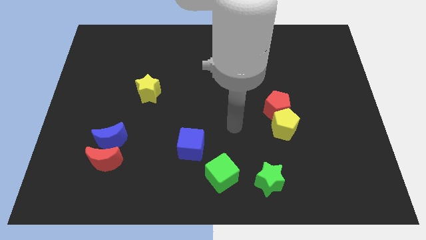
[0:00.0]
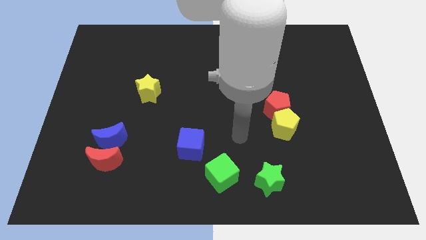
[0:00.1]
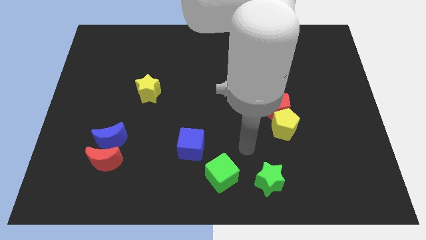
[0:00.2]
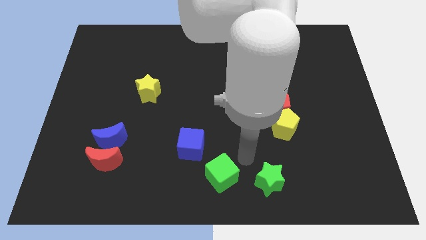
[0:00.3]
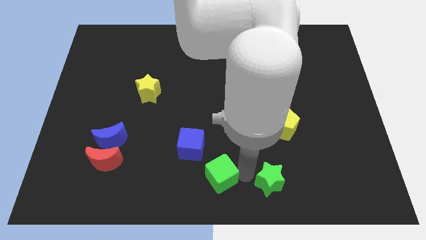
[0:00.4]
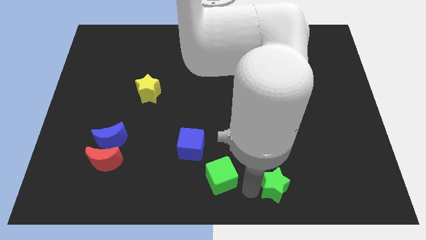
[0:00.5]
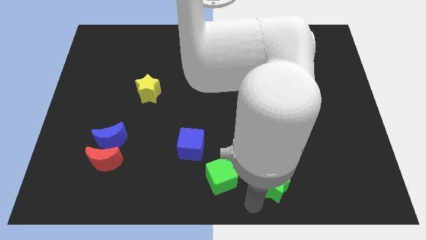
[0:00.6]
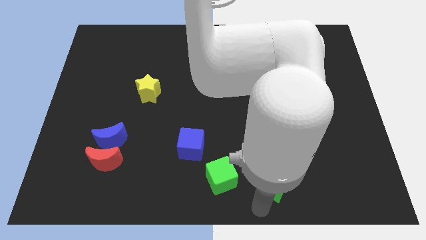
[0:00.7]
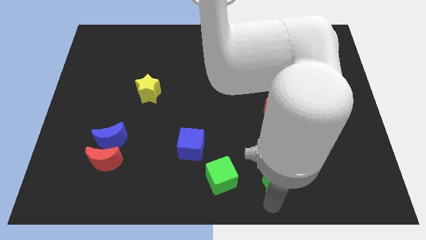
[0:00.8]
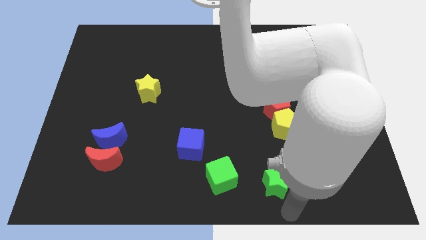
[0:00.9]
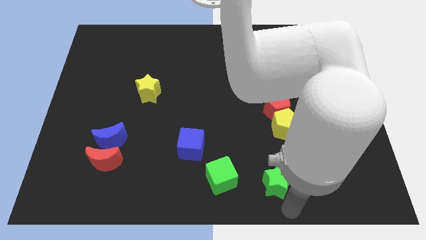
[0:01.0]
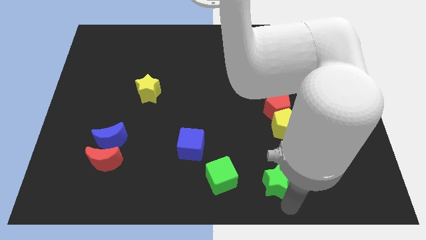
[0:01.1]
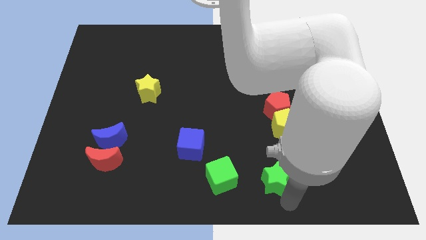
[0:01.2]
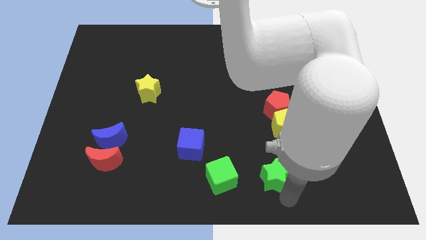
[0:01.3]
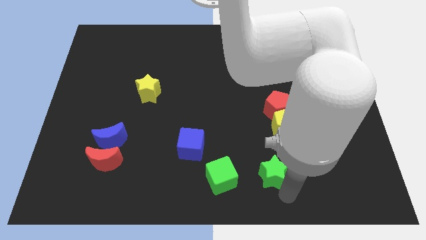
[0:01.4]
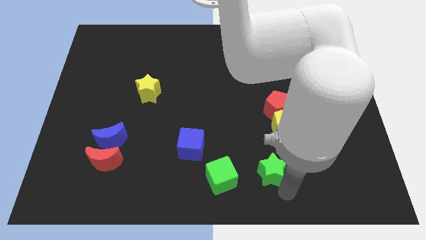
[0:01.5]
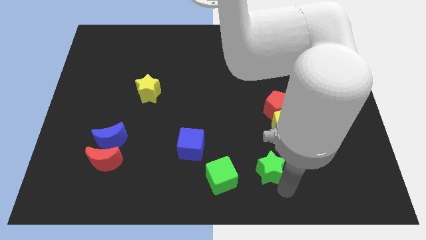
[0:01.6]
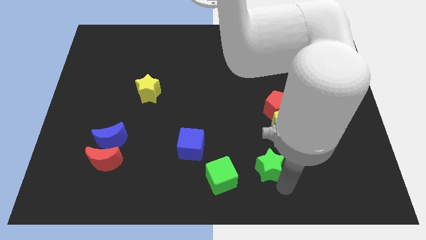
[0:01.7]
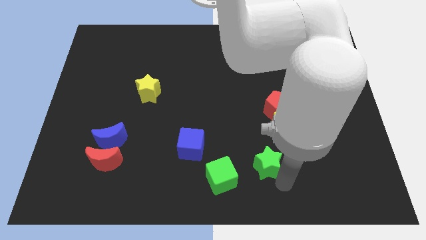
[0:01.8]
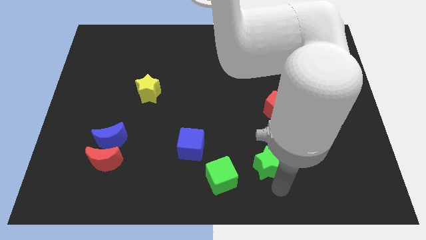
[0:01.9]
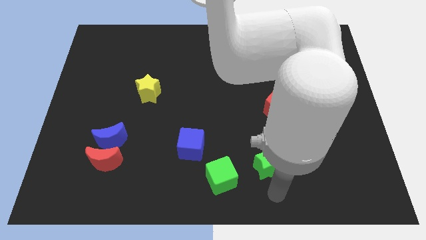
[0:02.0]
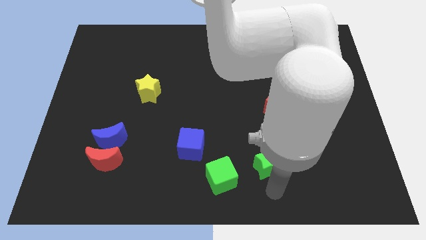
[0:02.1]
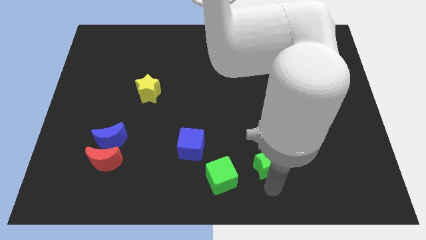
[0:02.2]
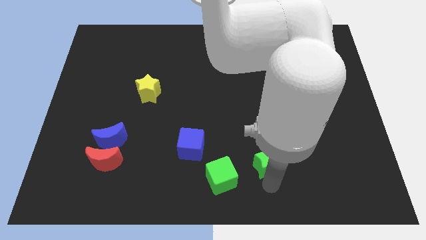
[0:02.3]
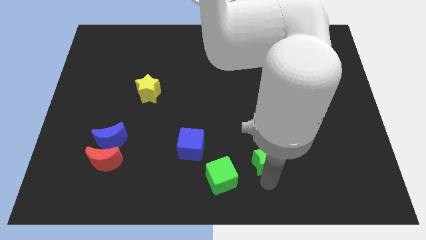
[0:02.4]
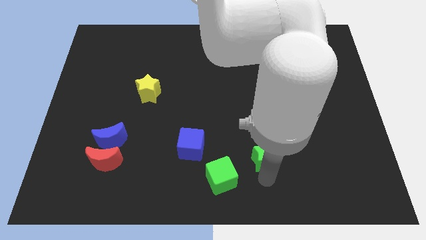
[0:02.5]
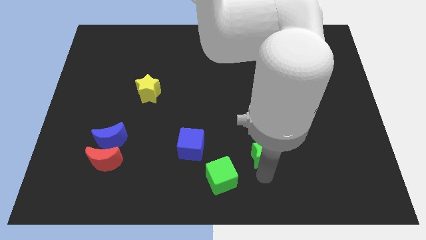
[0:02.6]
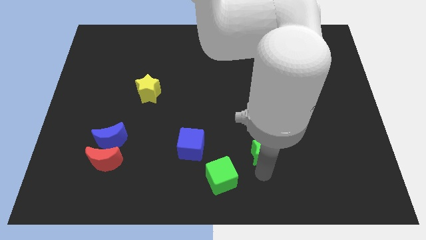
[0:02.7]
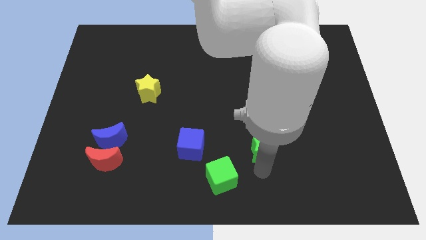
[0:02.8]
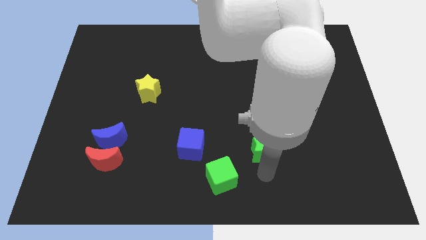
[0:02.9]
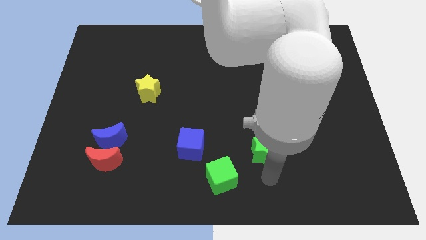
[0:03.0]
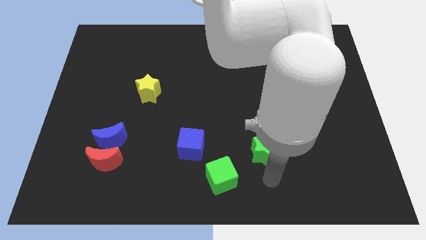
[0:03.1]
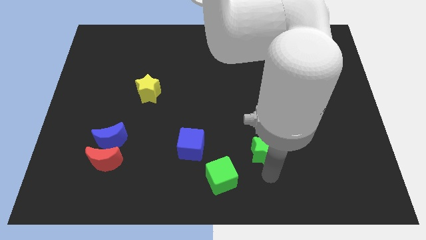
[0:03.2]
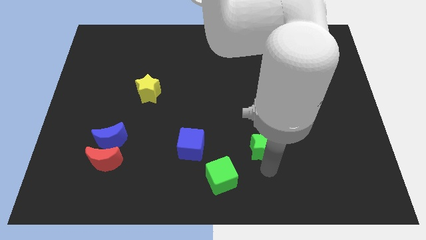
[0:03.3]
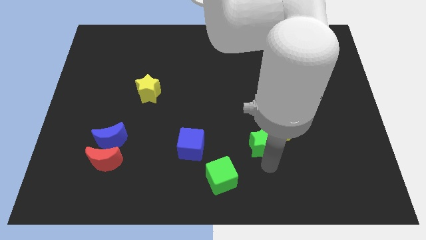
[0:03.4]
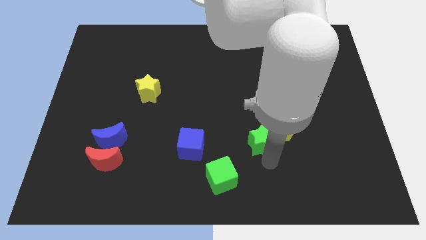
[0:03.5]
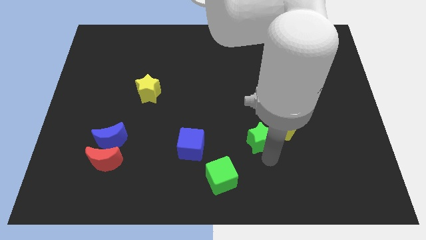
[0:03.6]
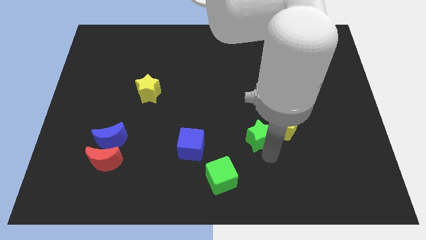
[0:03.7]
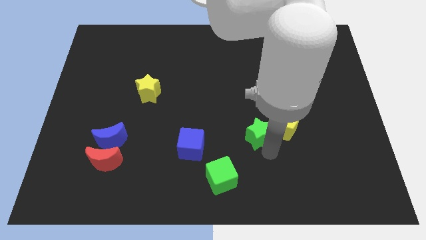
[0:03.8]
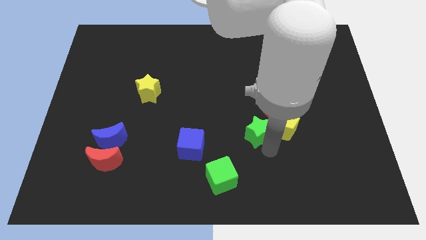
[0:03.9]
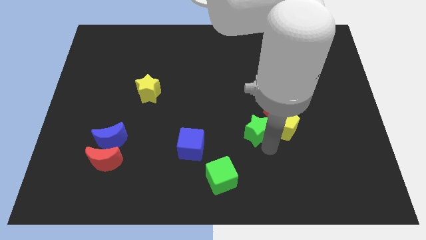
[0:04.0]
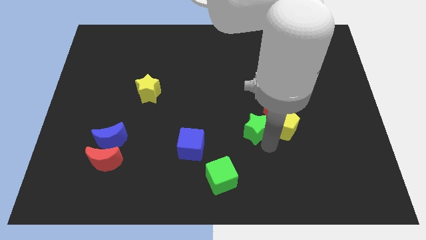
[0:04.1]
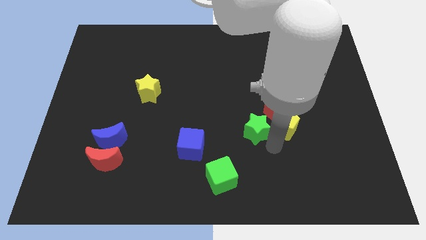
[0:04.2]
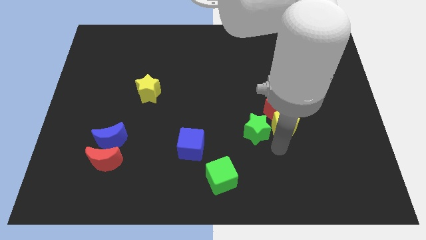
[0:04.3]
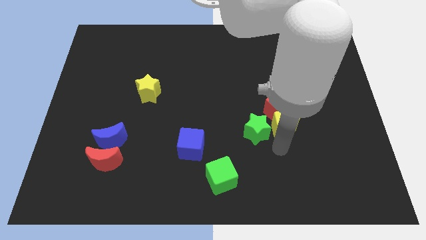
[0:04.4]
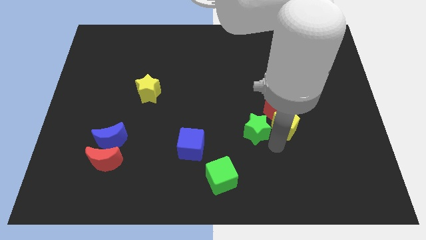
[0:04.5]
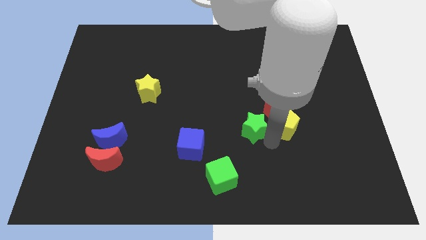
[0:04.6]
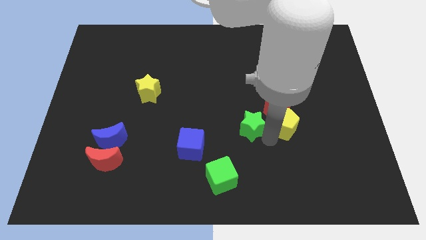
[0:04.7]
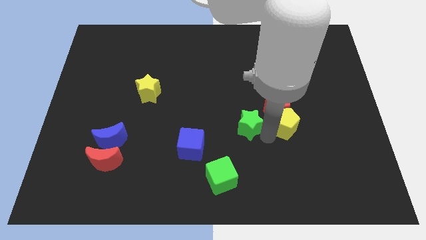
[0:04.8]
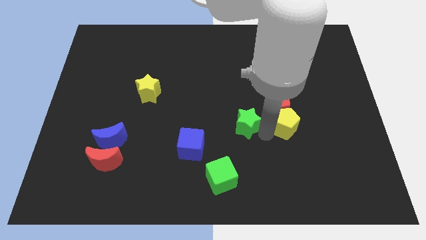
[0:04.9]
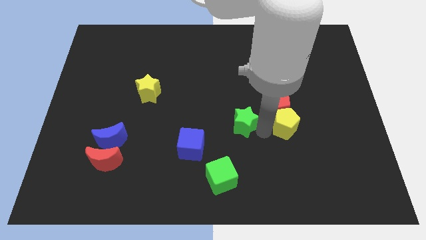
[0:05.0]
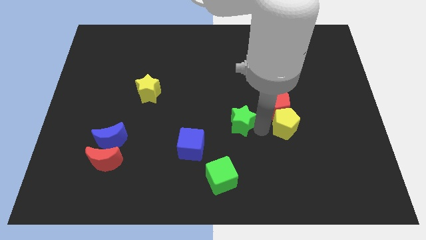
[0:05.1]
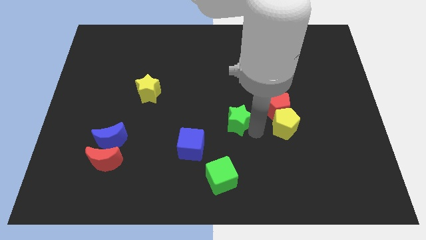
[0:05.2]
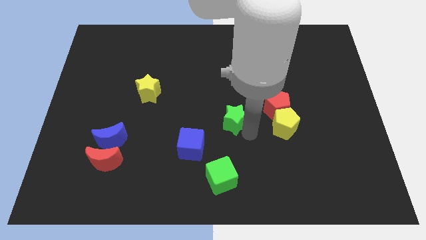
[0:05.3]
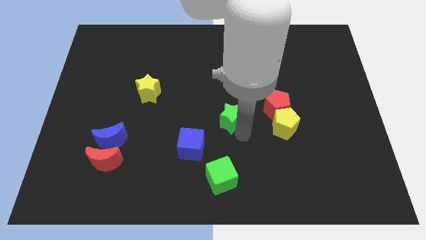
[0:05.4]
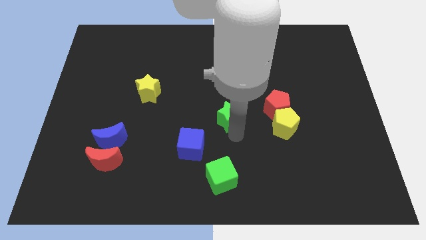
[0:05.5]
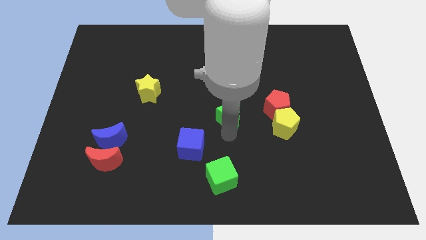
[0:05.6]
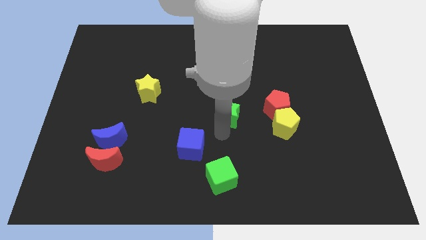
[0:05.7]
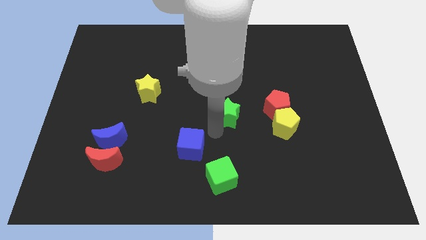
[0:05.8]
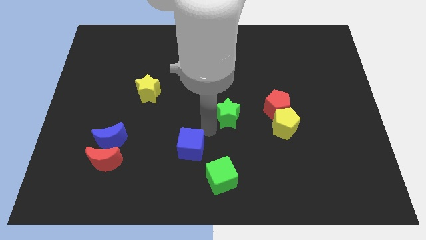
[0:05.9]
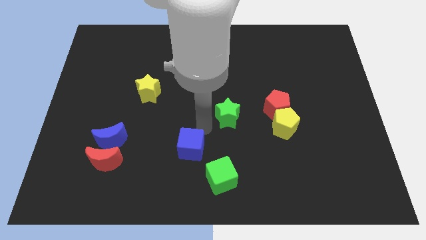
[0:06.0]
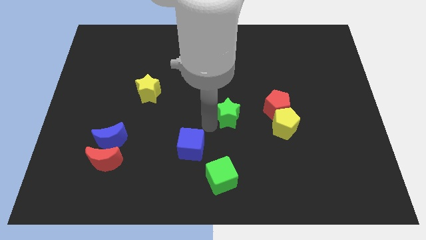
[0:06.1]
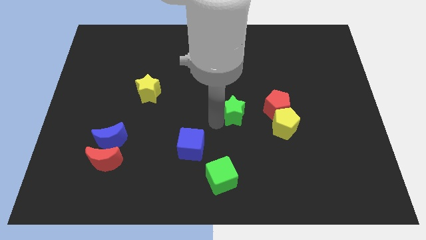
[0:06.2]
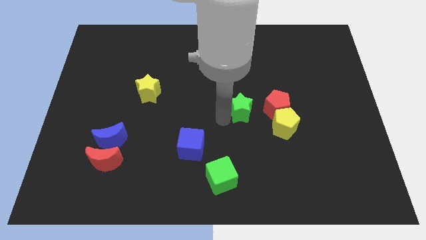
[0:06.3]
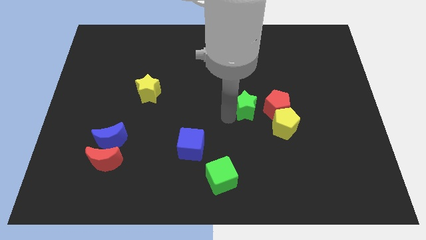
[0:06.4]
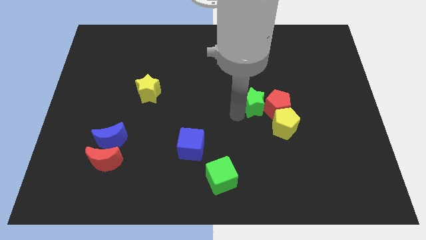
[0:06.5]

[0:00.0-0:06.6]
push the green star up

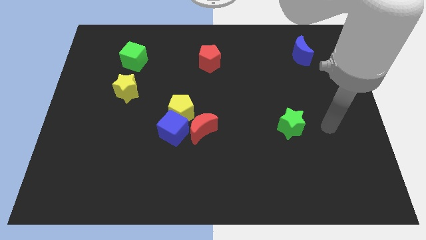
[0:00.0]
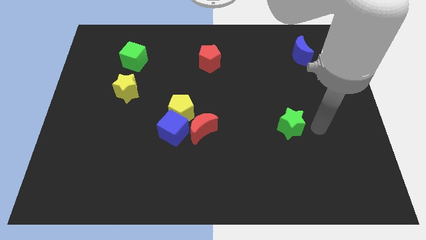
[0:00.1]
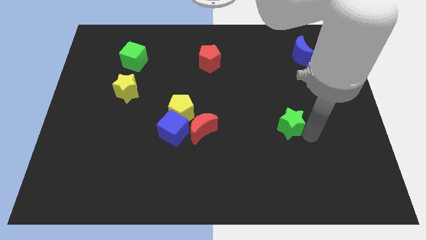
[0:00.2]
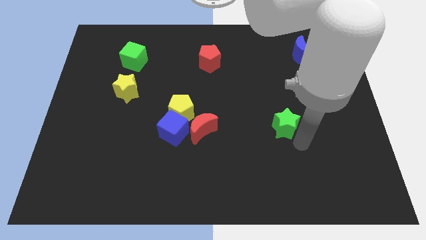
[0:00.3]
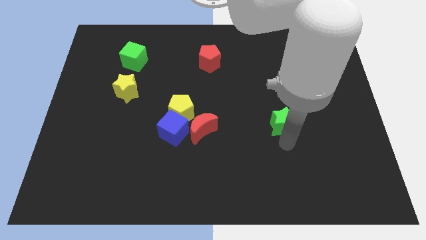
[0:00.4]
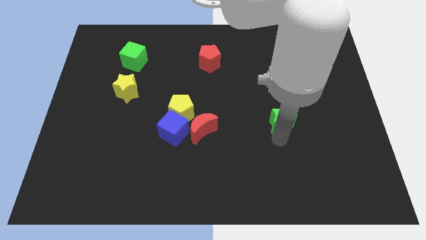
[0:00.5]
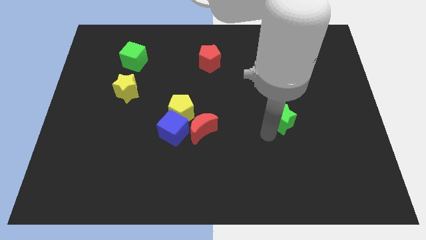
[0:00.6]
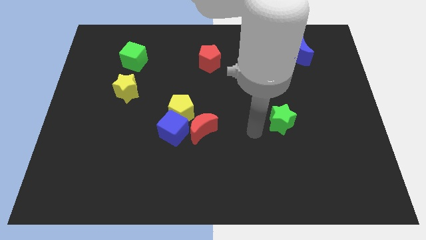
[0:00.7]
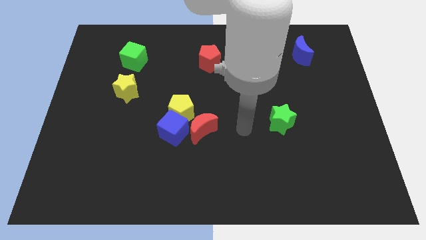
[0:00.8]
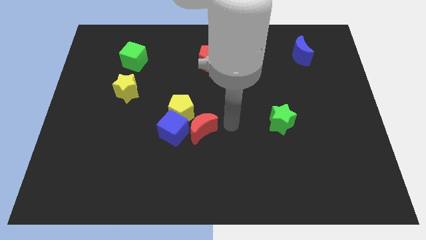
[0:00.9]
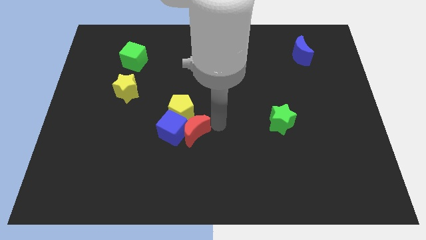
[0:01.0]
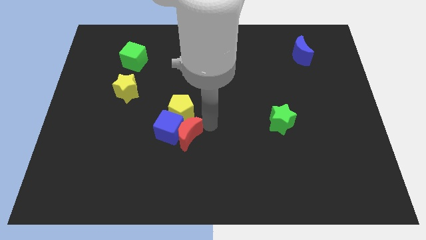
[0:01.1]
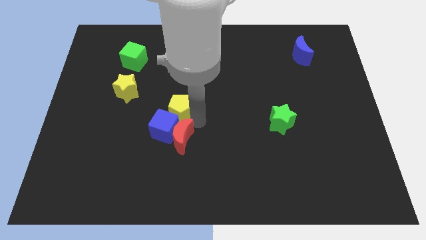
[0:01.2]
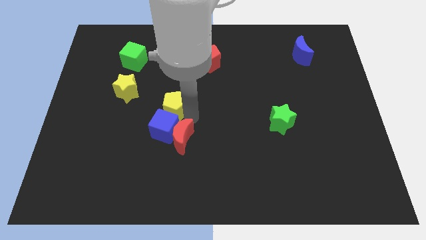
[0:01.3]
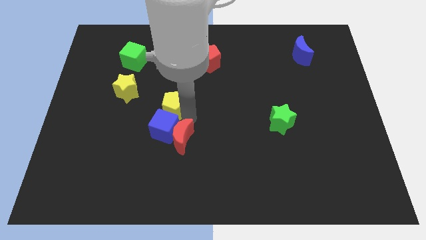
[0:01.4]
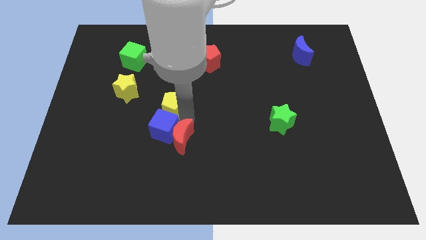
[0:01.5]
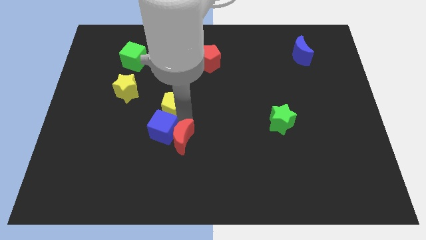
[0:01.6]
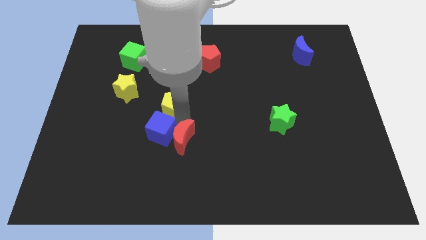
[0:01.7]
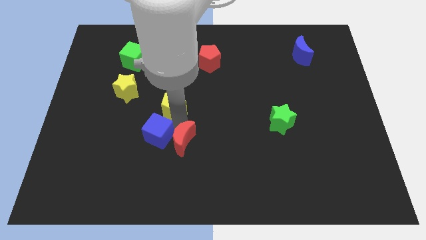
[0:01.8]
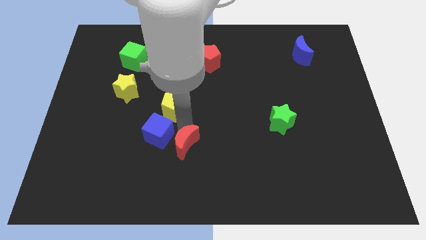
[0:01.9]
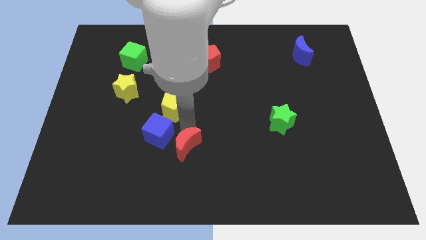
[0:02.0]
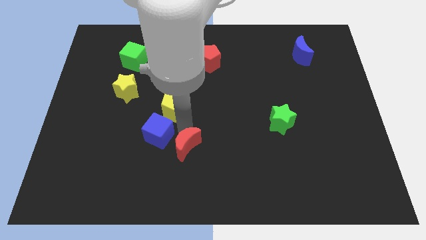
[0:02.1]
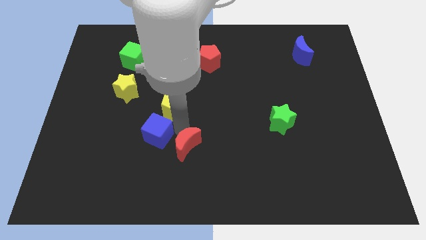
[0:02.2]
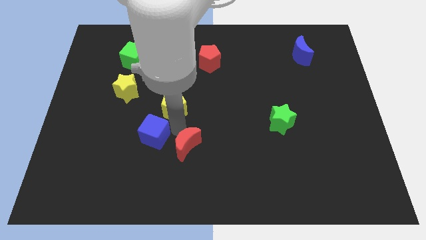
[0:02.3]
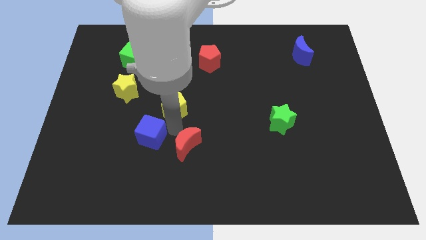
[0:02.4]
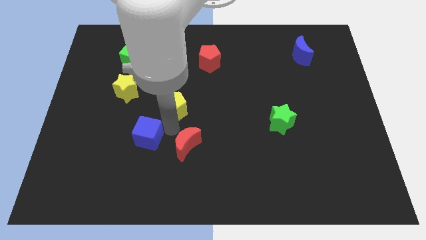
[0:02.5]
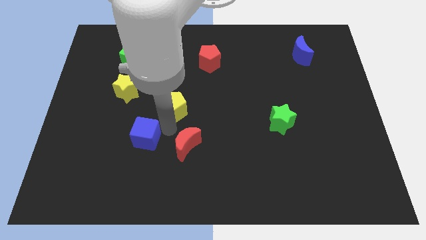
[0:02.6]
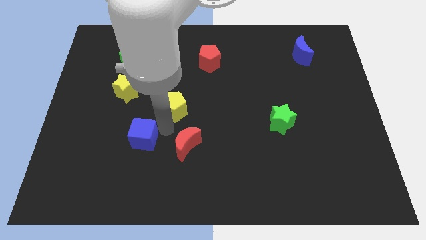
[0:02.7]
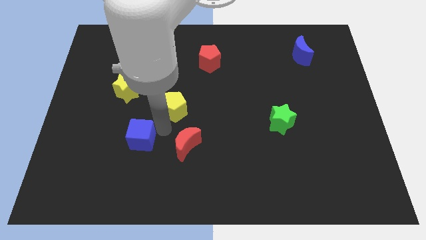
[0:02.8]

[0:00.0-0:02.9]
slightly move the blue cube left
